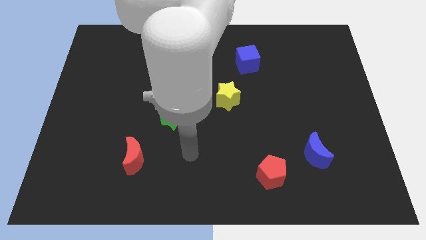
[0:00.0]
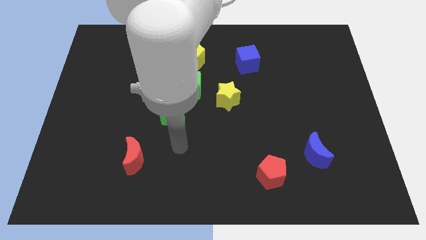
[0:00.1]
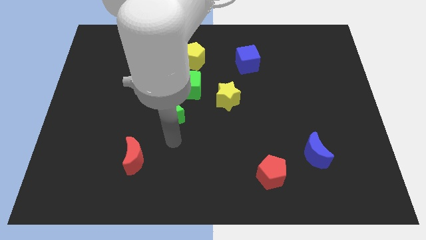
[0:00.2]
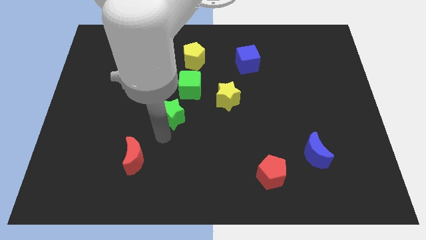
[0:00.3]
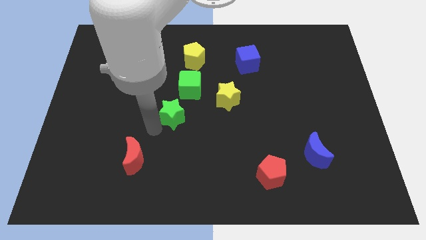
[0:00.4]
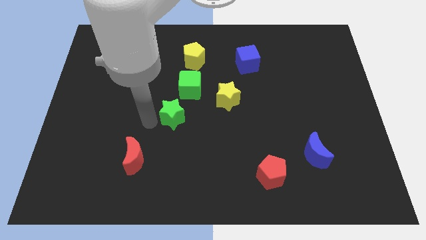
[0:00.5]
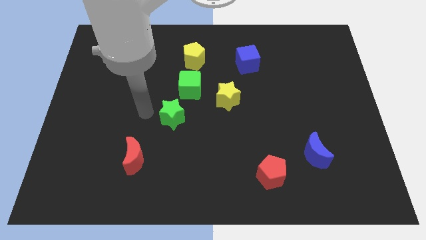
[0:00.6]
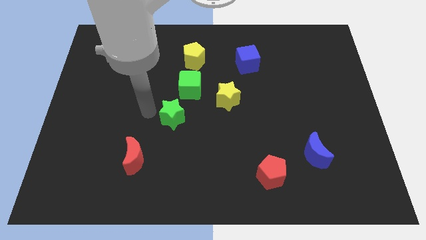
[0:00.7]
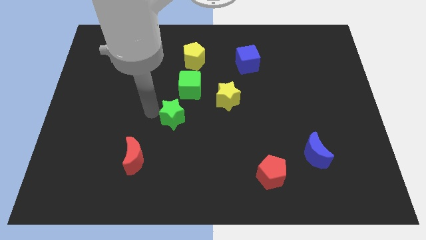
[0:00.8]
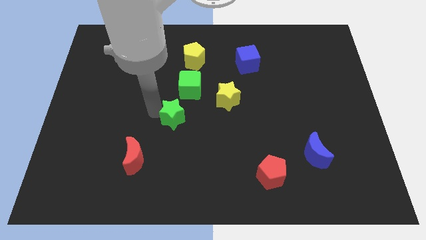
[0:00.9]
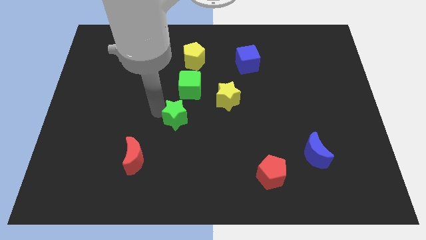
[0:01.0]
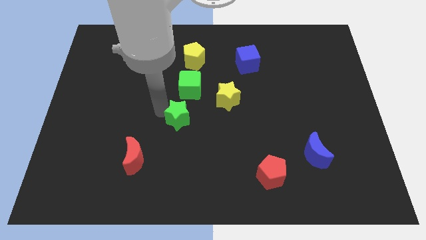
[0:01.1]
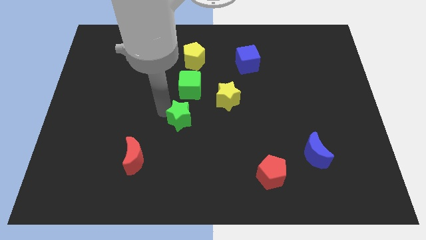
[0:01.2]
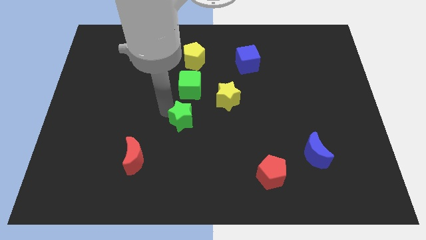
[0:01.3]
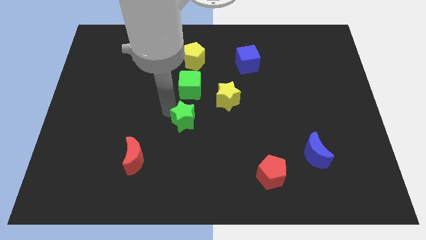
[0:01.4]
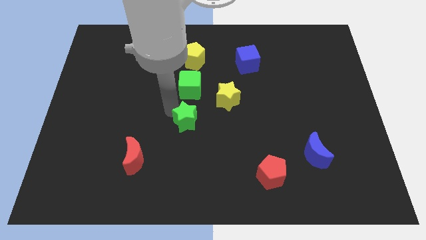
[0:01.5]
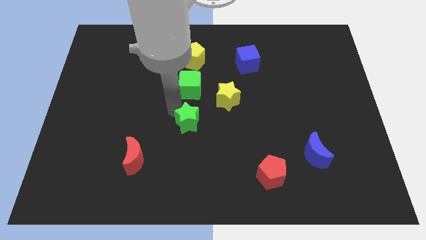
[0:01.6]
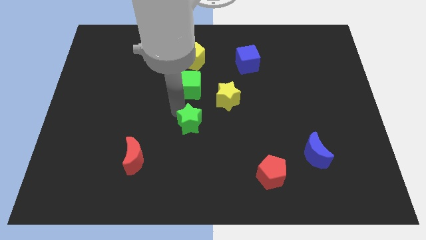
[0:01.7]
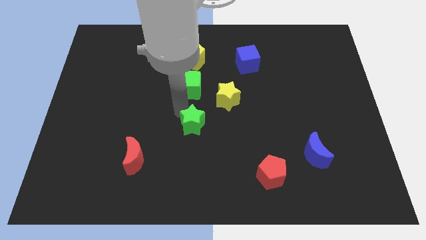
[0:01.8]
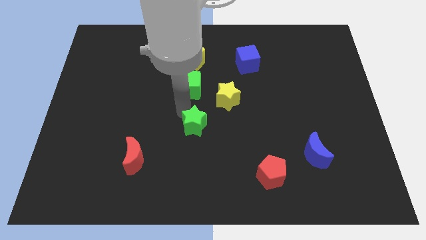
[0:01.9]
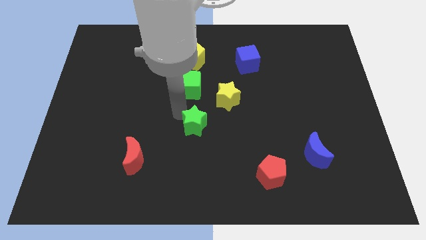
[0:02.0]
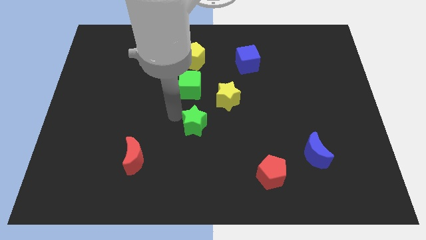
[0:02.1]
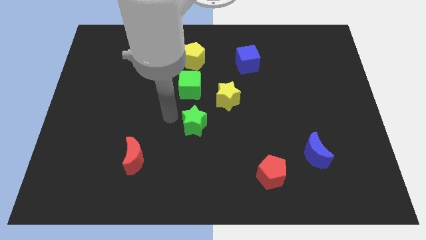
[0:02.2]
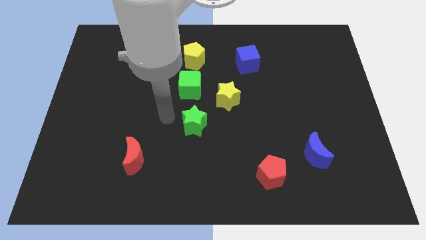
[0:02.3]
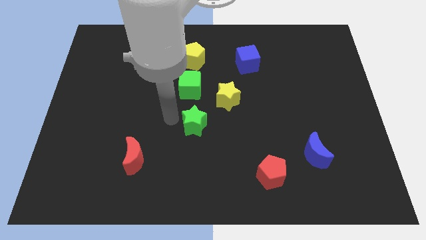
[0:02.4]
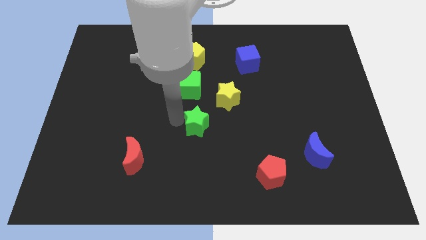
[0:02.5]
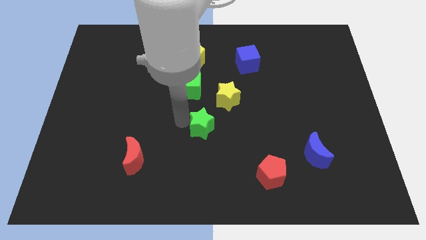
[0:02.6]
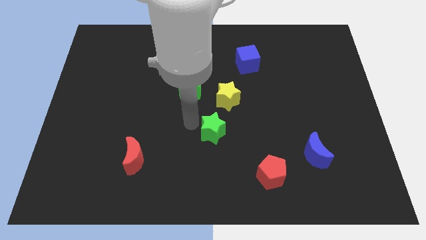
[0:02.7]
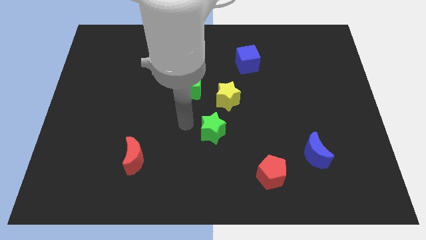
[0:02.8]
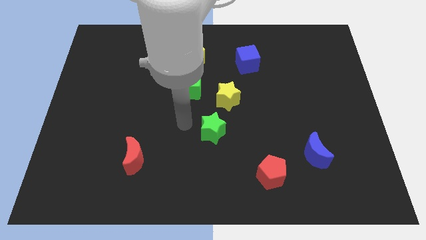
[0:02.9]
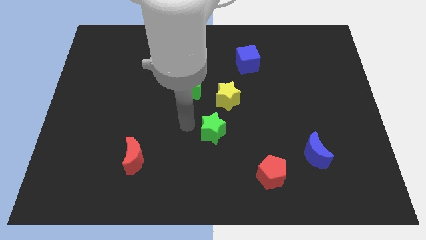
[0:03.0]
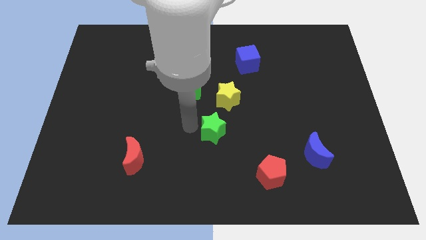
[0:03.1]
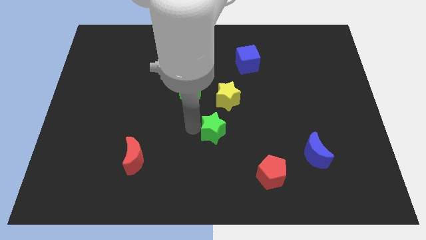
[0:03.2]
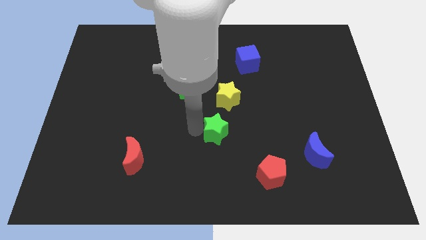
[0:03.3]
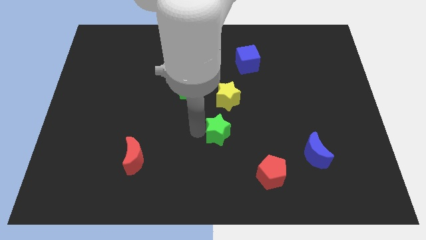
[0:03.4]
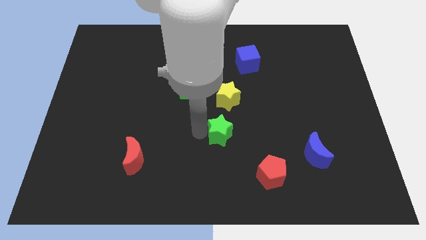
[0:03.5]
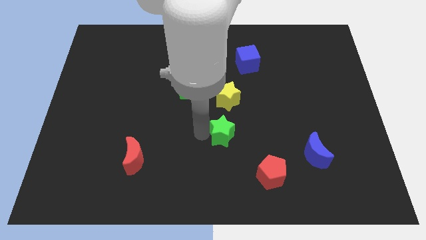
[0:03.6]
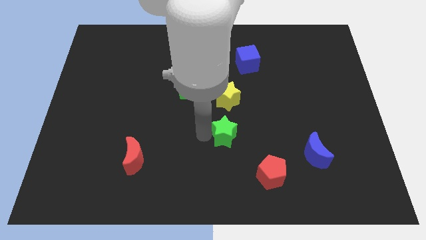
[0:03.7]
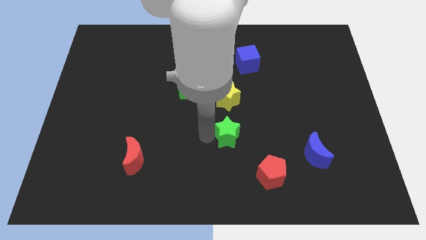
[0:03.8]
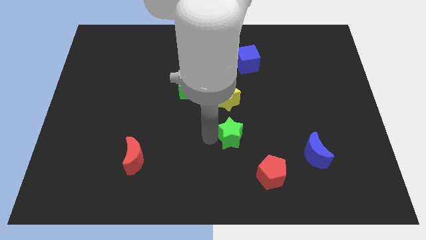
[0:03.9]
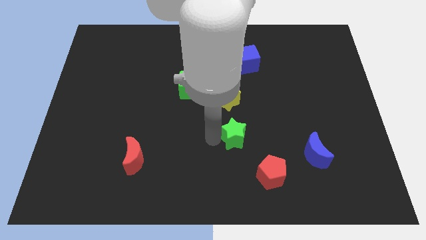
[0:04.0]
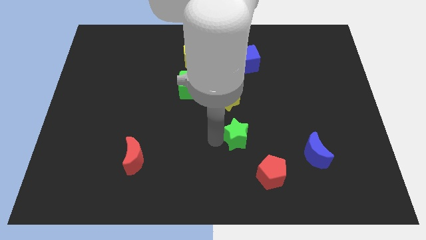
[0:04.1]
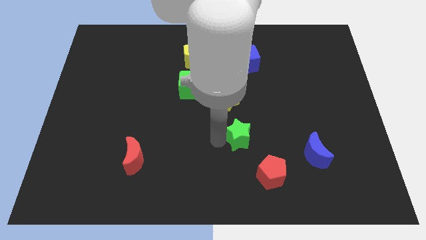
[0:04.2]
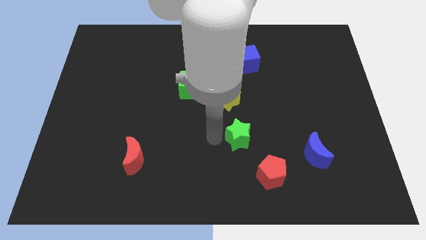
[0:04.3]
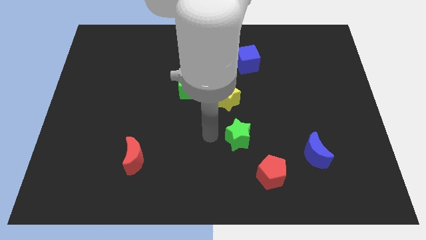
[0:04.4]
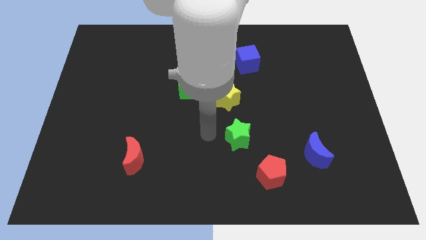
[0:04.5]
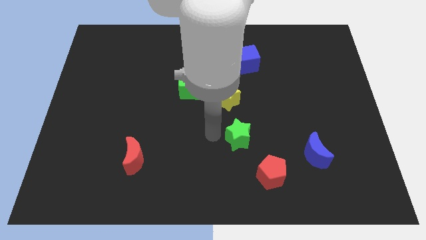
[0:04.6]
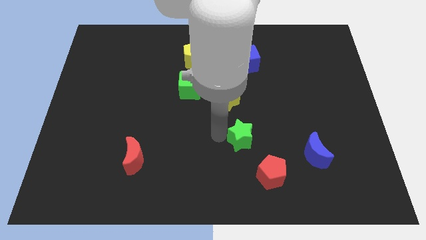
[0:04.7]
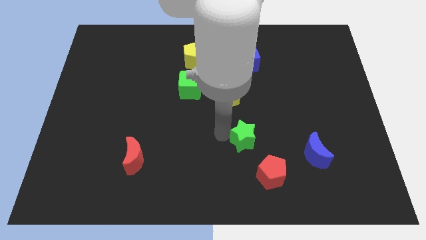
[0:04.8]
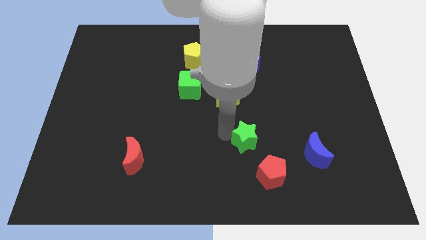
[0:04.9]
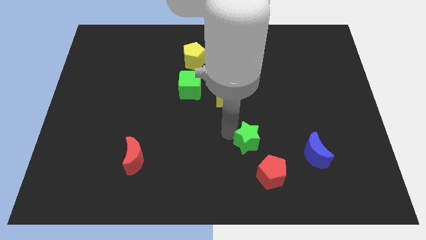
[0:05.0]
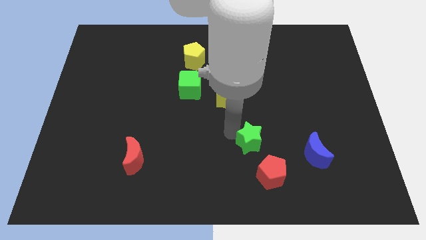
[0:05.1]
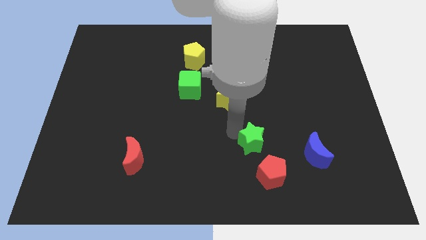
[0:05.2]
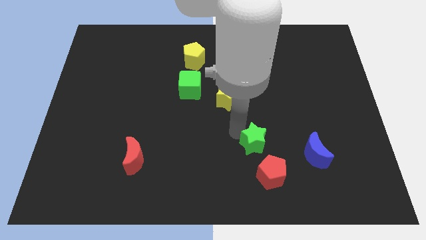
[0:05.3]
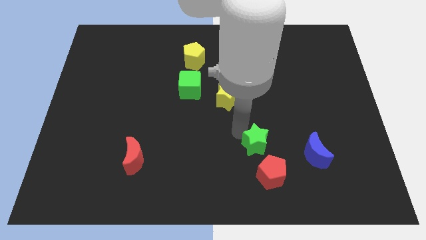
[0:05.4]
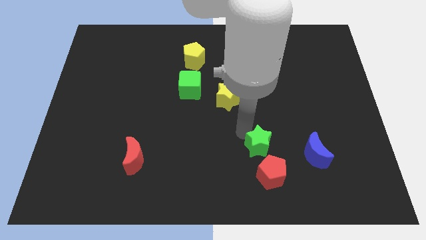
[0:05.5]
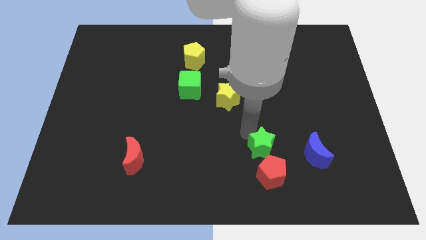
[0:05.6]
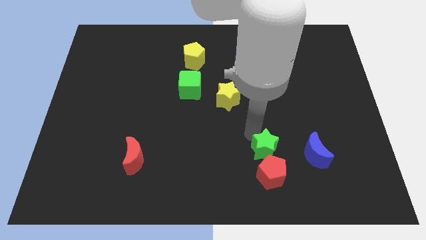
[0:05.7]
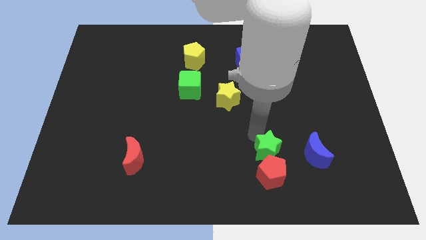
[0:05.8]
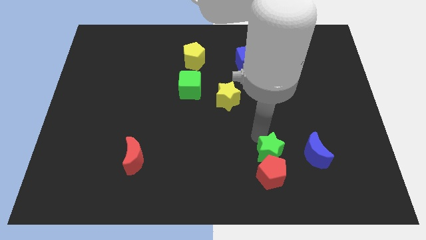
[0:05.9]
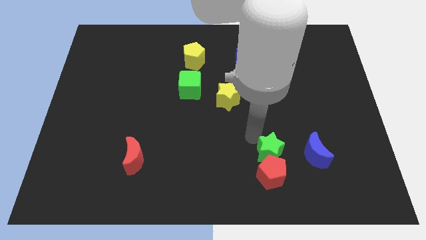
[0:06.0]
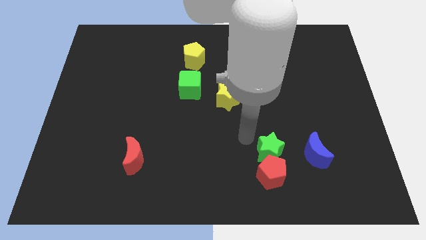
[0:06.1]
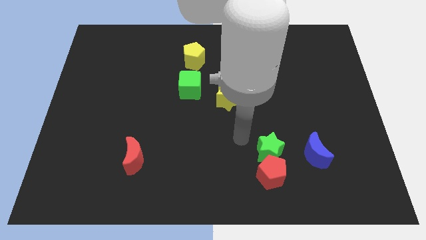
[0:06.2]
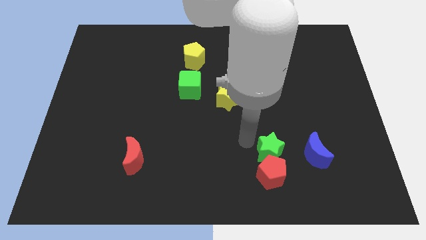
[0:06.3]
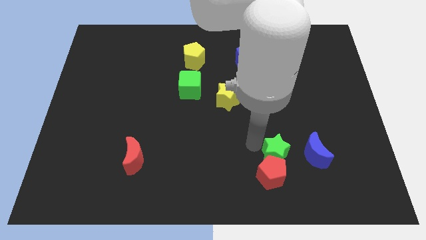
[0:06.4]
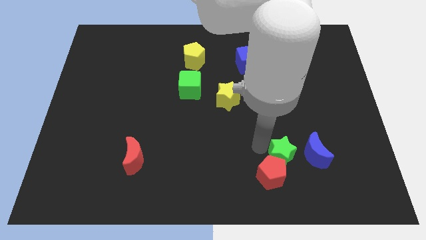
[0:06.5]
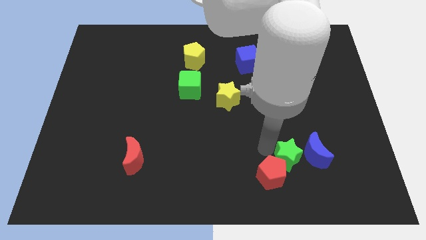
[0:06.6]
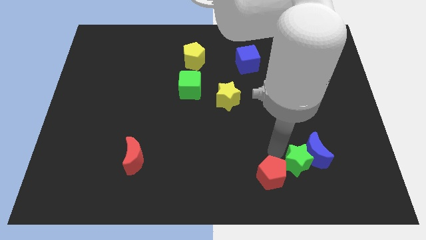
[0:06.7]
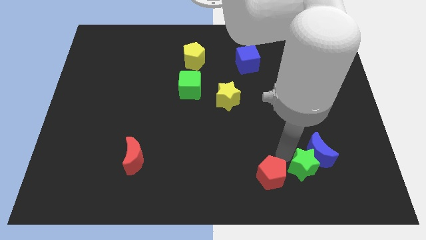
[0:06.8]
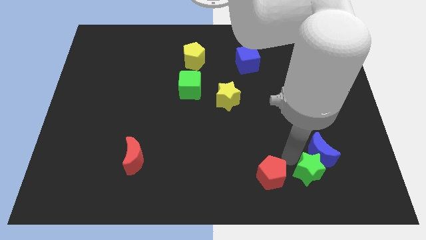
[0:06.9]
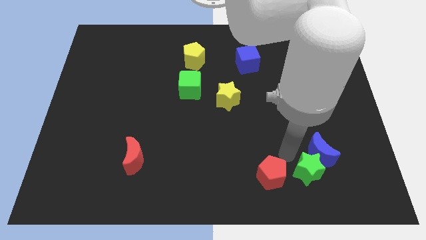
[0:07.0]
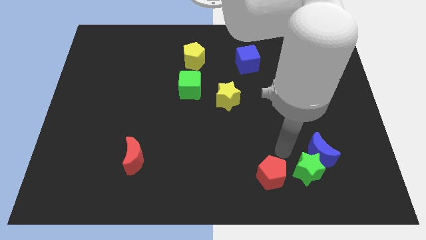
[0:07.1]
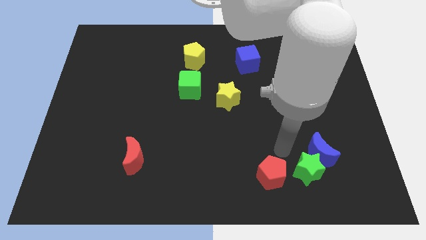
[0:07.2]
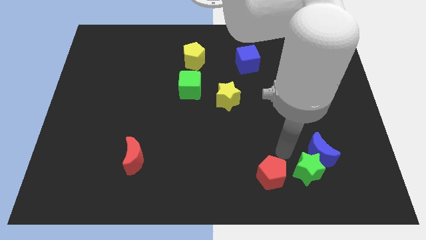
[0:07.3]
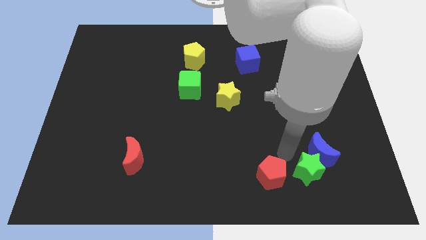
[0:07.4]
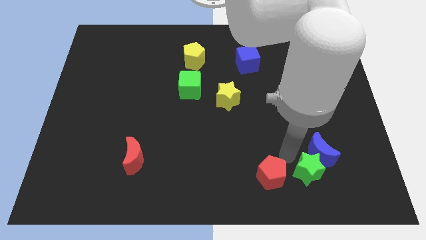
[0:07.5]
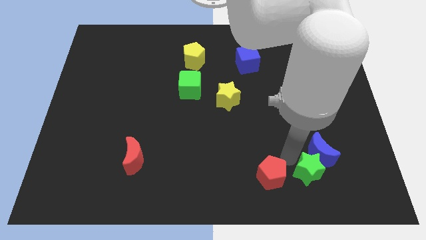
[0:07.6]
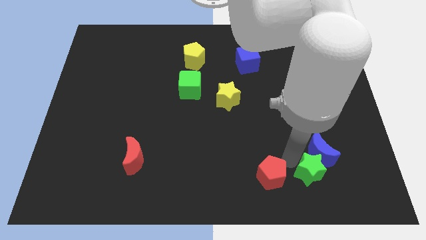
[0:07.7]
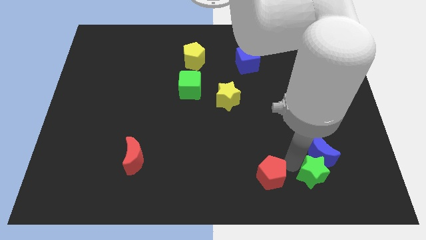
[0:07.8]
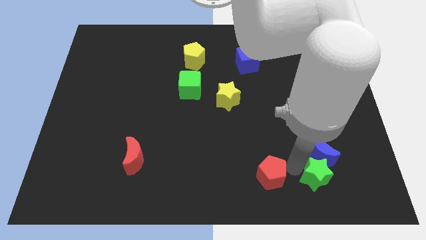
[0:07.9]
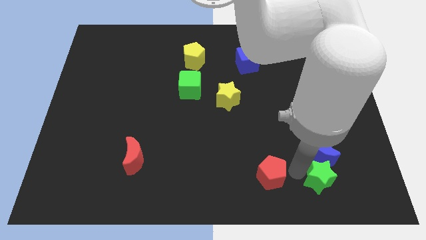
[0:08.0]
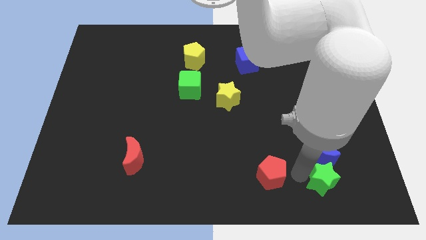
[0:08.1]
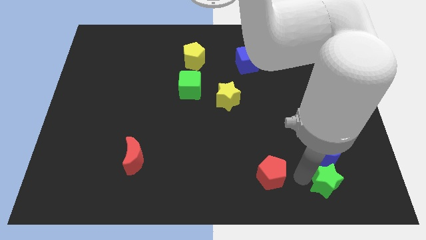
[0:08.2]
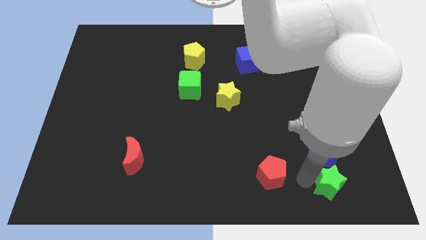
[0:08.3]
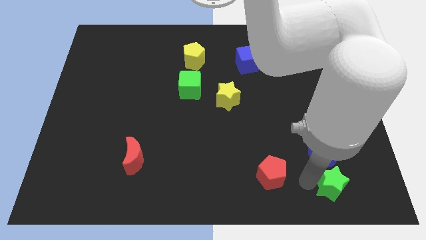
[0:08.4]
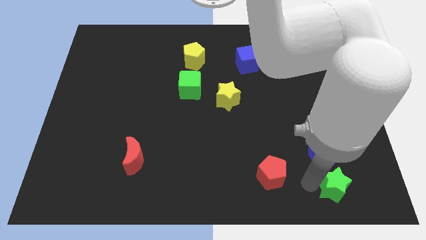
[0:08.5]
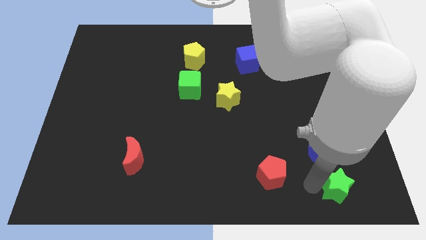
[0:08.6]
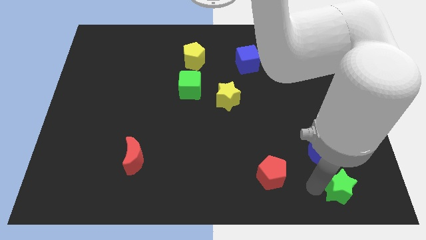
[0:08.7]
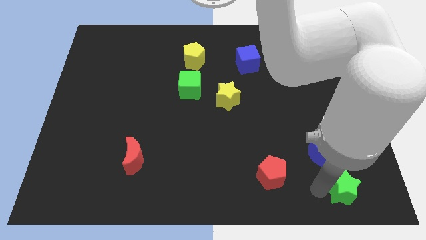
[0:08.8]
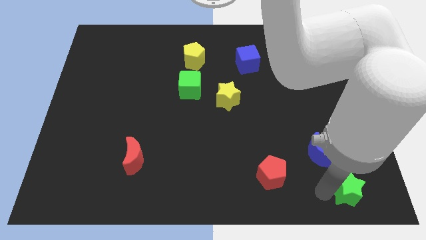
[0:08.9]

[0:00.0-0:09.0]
move the green star to the lower right corner
